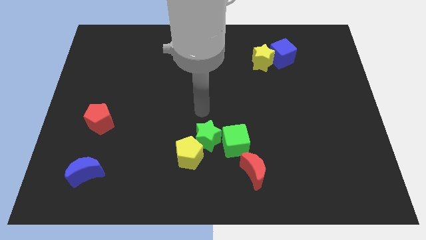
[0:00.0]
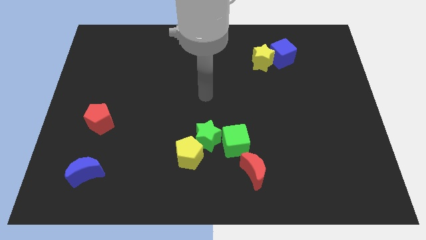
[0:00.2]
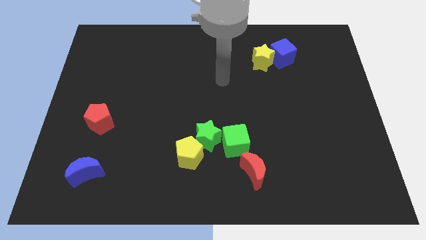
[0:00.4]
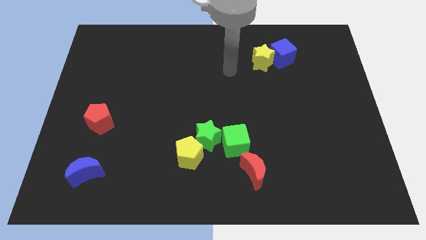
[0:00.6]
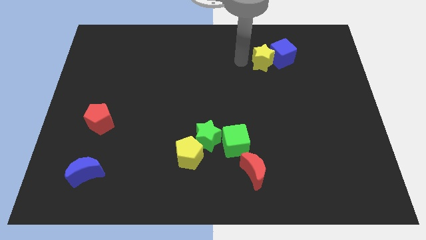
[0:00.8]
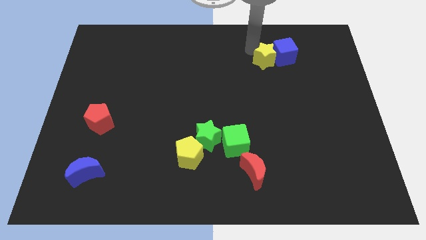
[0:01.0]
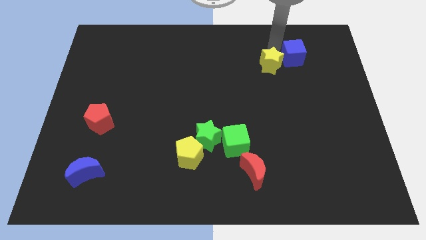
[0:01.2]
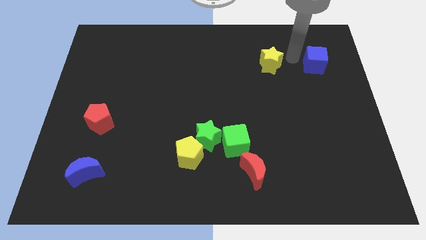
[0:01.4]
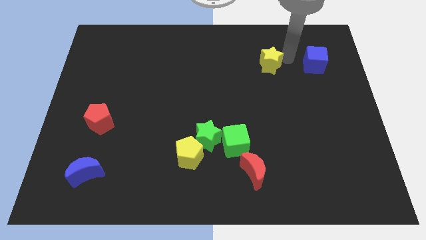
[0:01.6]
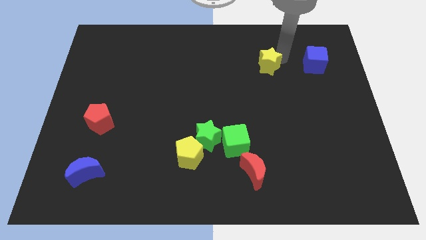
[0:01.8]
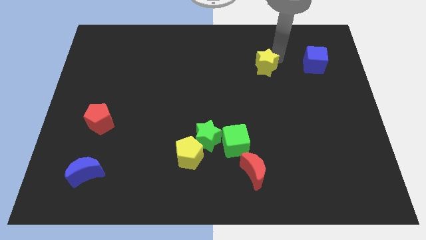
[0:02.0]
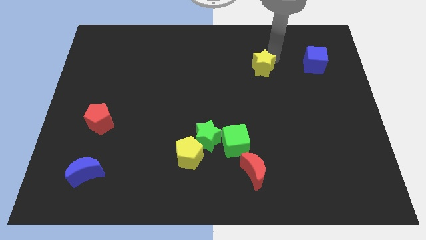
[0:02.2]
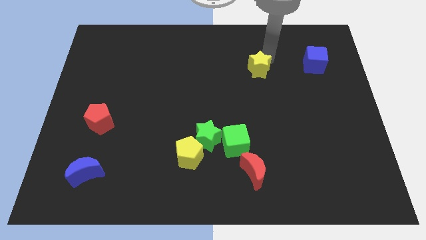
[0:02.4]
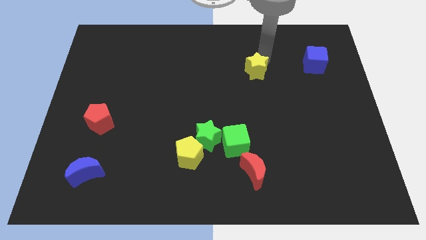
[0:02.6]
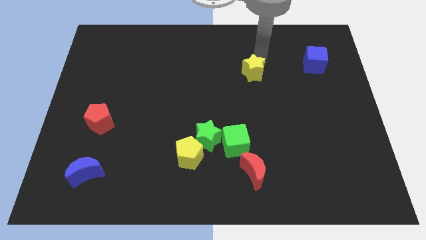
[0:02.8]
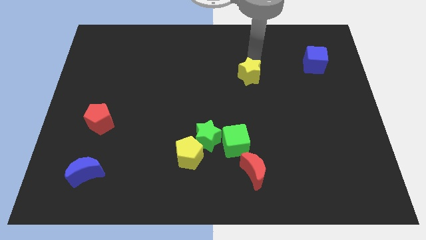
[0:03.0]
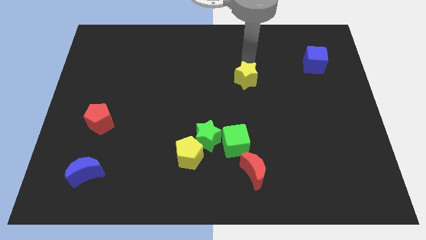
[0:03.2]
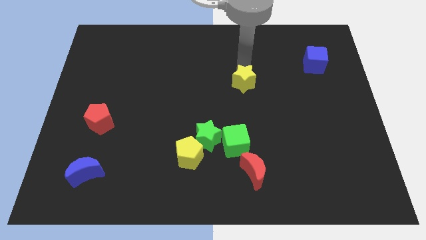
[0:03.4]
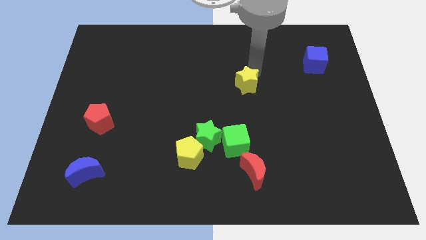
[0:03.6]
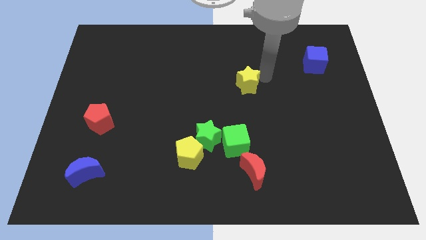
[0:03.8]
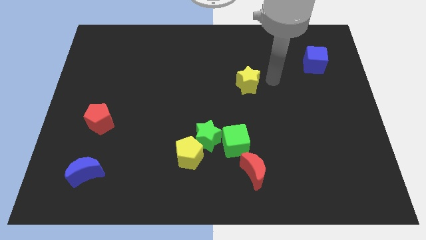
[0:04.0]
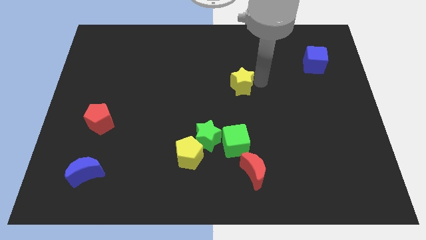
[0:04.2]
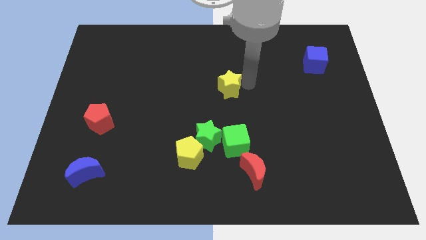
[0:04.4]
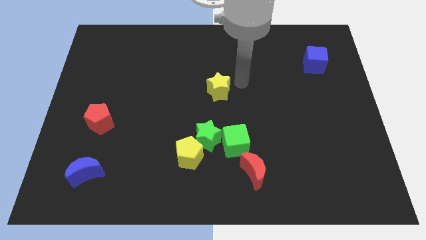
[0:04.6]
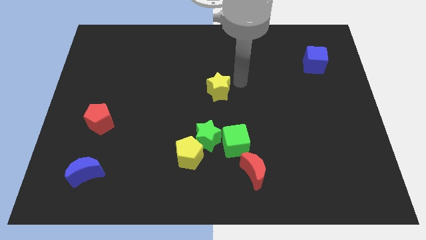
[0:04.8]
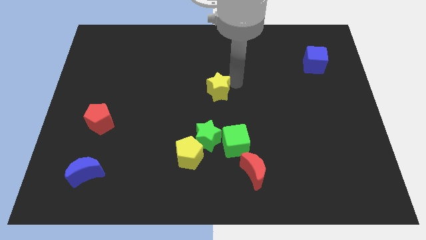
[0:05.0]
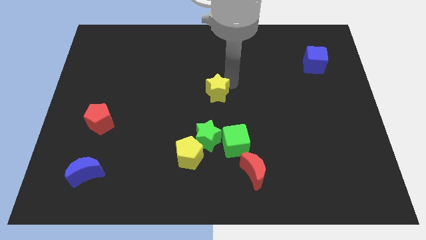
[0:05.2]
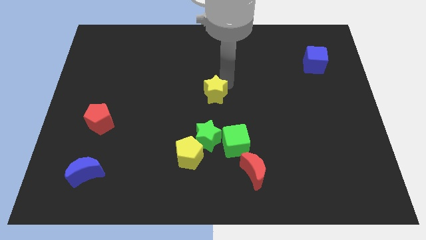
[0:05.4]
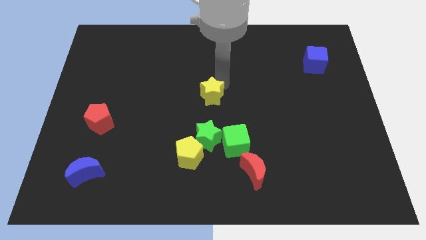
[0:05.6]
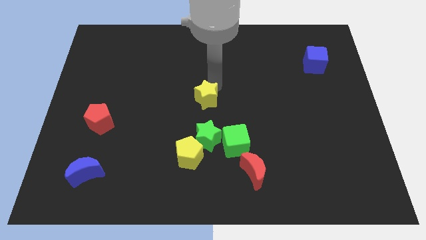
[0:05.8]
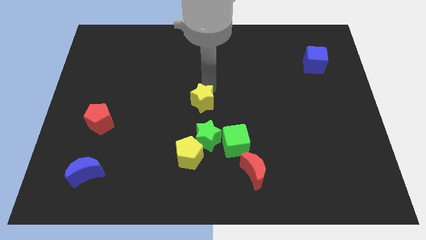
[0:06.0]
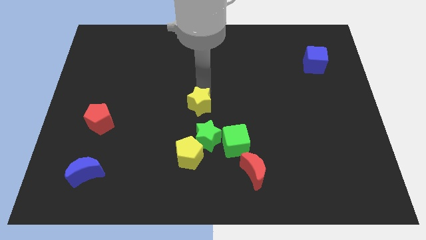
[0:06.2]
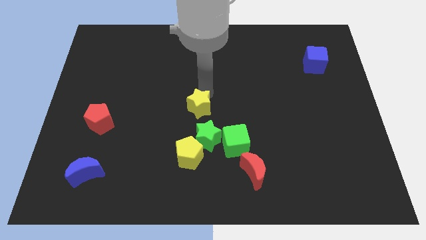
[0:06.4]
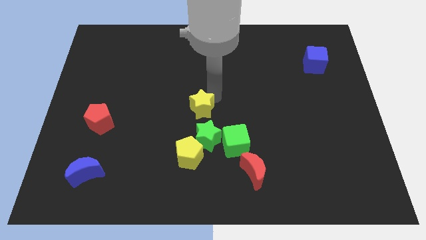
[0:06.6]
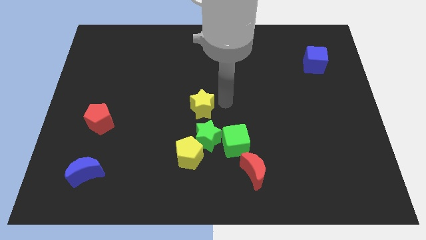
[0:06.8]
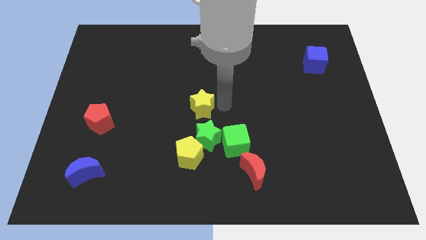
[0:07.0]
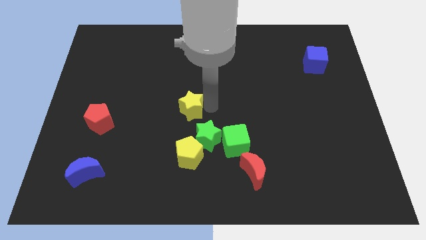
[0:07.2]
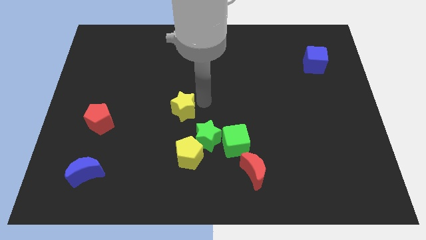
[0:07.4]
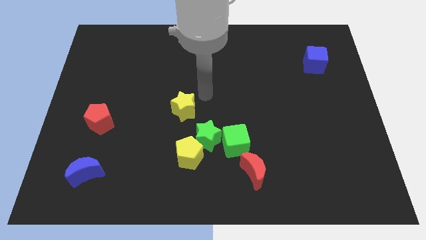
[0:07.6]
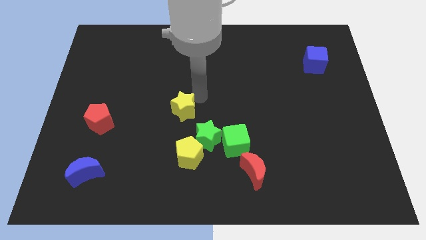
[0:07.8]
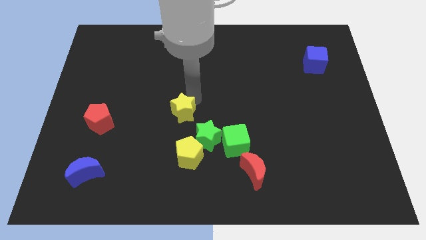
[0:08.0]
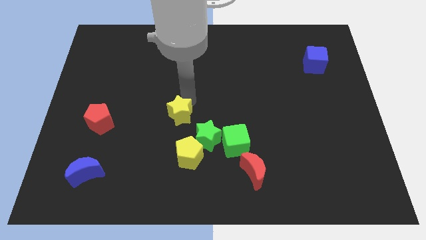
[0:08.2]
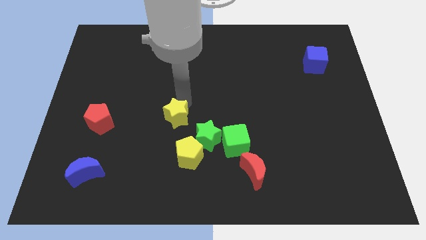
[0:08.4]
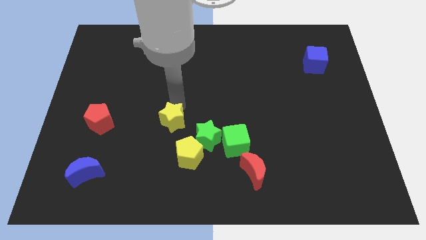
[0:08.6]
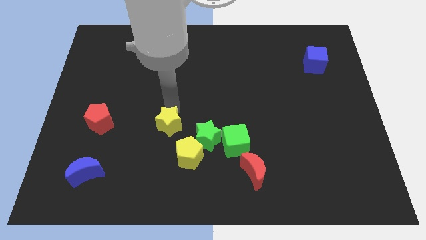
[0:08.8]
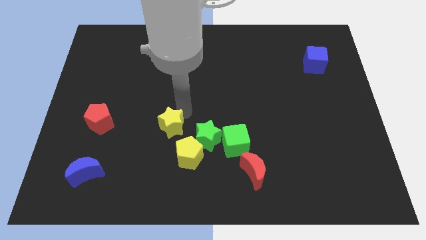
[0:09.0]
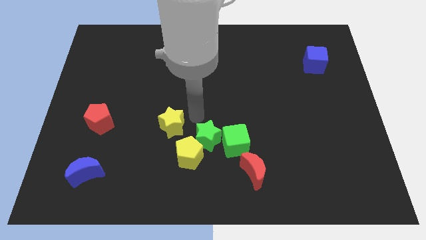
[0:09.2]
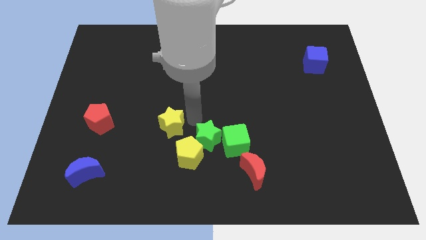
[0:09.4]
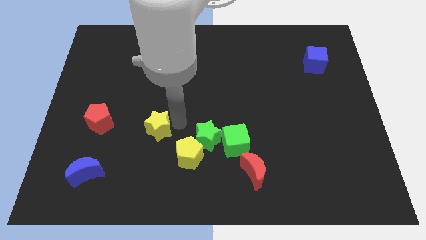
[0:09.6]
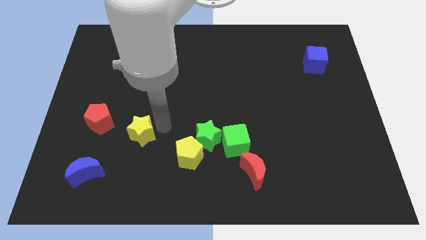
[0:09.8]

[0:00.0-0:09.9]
put the yellow star diagonally down and to the right of the red pentagon

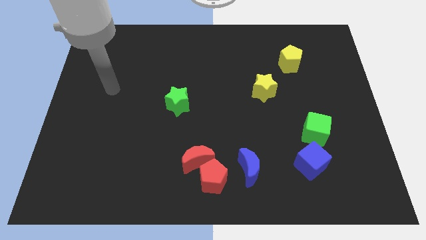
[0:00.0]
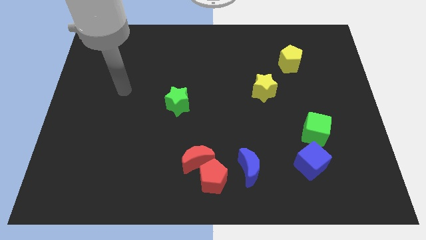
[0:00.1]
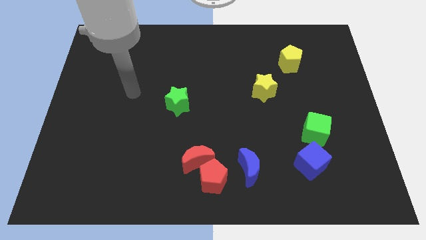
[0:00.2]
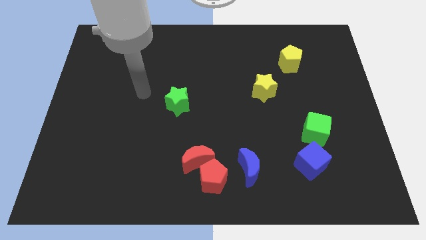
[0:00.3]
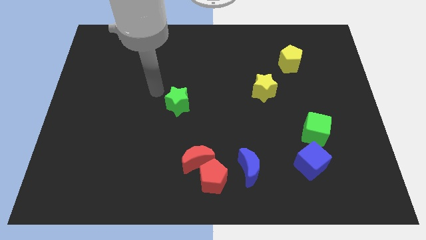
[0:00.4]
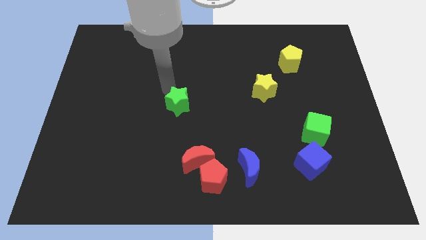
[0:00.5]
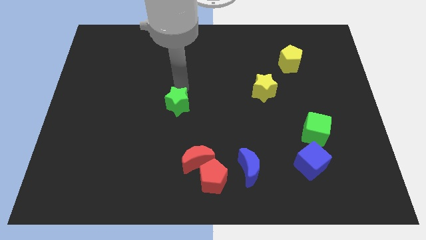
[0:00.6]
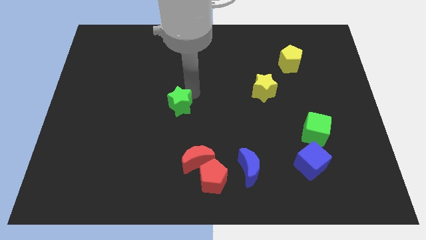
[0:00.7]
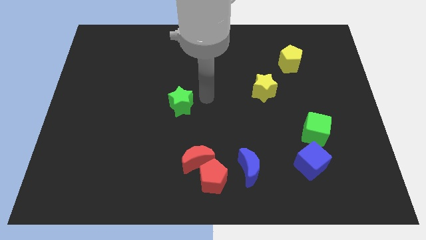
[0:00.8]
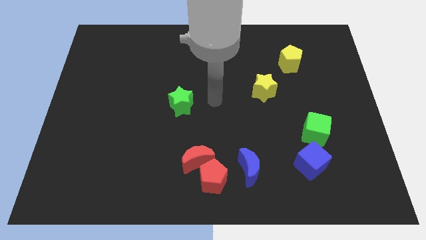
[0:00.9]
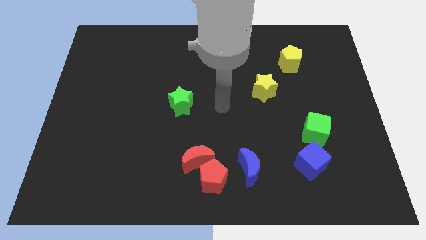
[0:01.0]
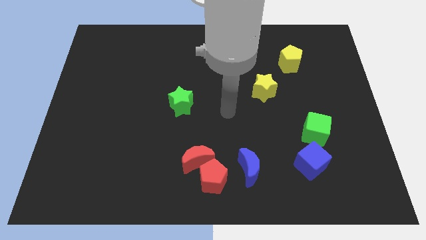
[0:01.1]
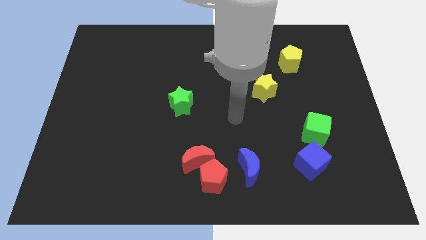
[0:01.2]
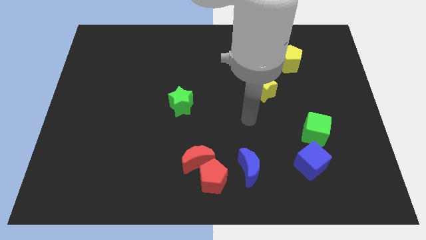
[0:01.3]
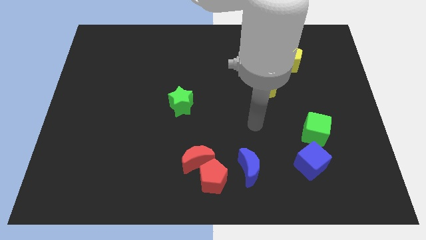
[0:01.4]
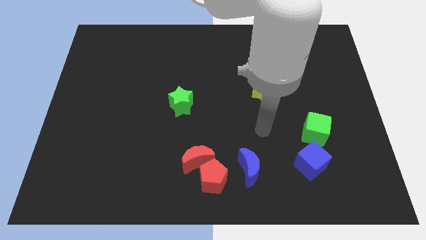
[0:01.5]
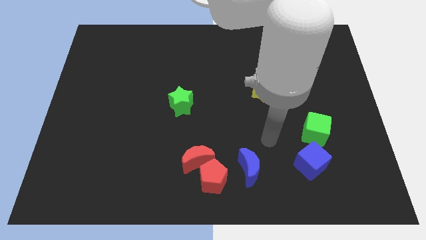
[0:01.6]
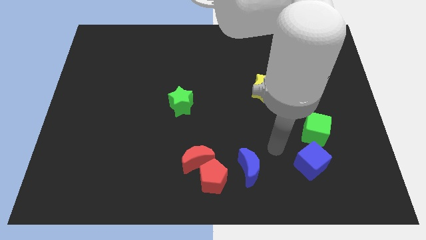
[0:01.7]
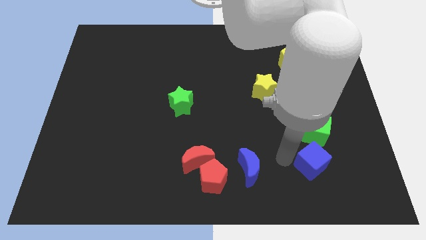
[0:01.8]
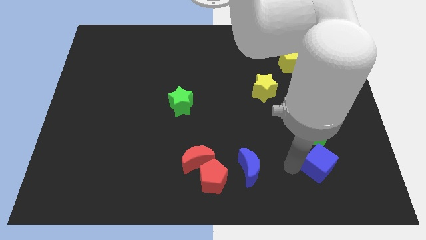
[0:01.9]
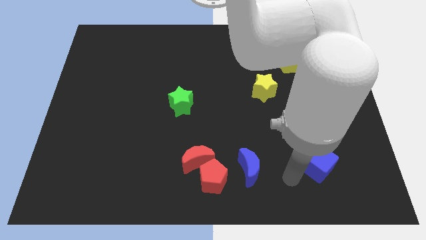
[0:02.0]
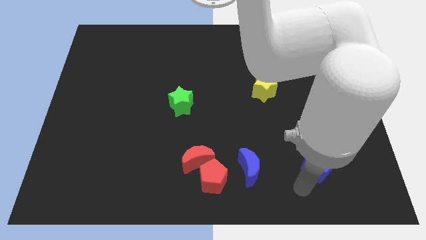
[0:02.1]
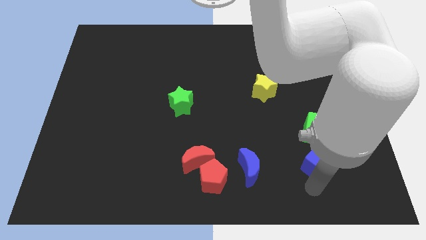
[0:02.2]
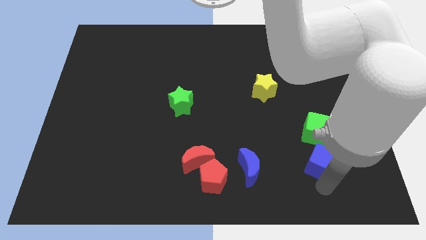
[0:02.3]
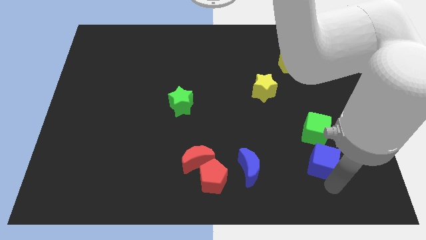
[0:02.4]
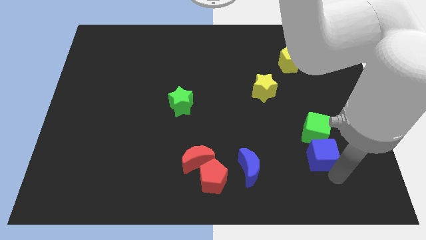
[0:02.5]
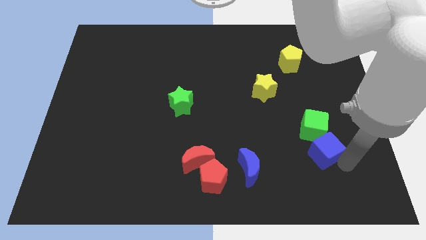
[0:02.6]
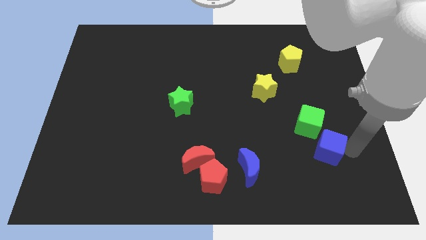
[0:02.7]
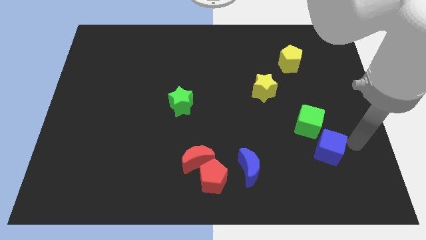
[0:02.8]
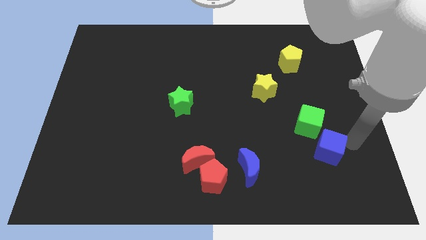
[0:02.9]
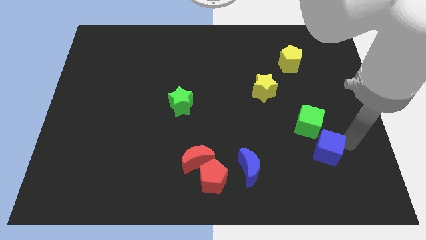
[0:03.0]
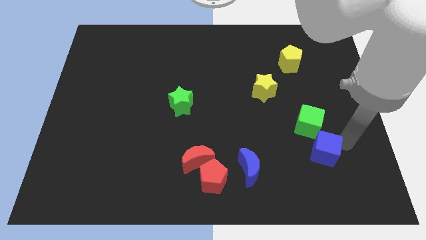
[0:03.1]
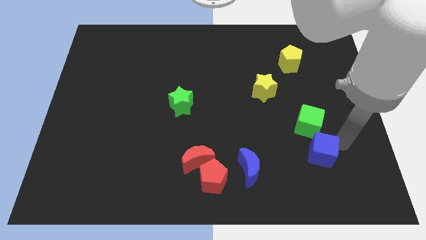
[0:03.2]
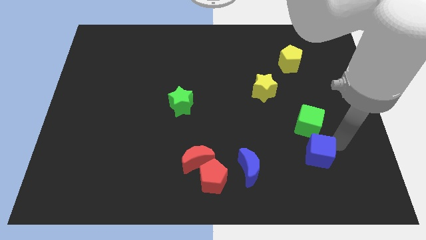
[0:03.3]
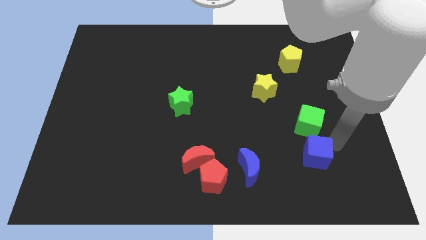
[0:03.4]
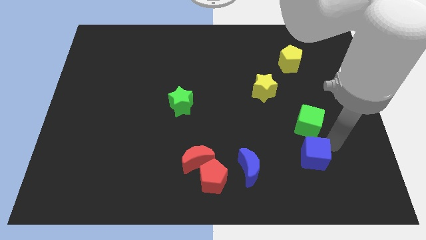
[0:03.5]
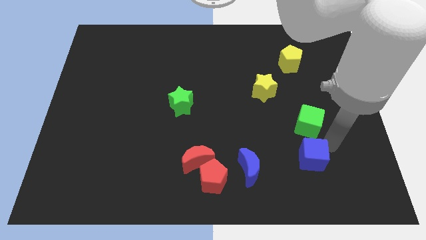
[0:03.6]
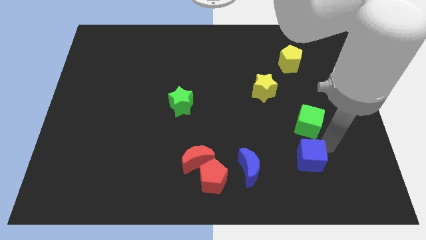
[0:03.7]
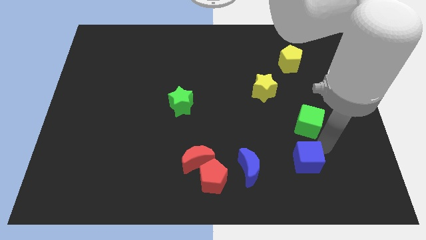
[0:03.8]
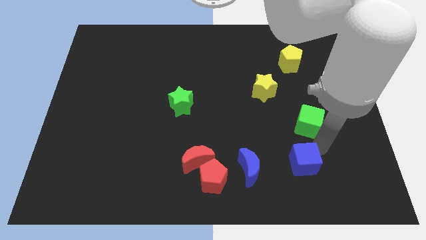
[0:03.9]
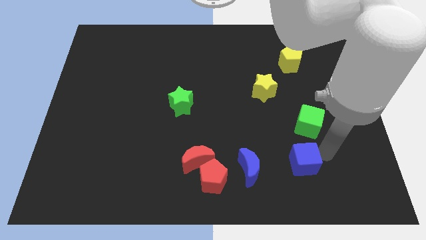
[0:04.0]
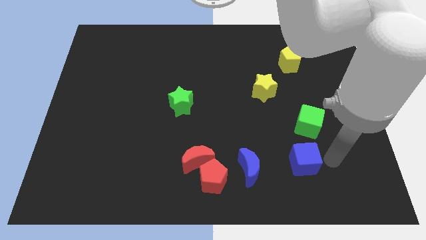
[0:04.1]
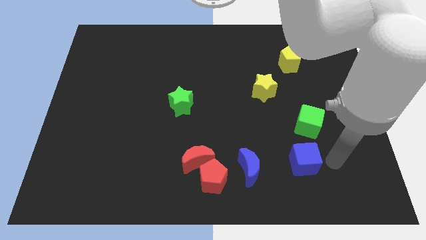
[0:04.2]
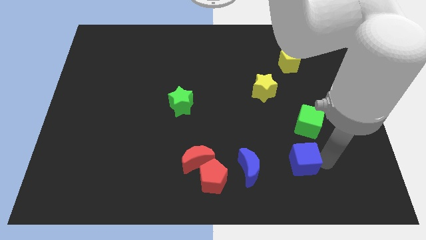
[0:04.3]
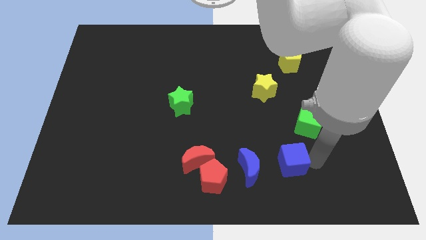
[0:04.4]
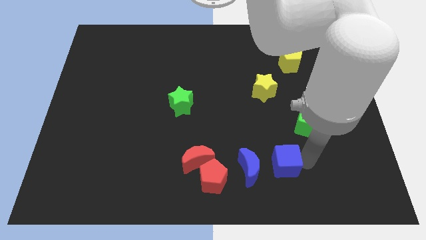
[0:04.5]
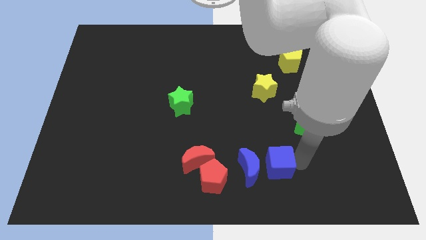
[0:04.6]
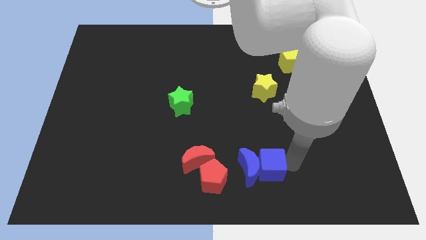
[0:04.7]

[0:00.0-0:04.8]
push the blue cube to the right of the red moon
